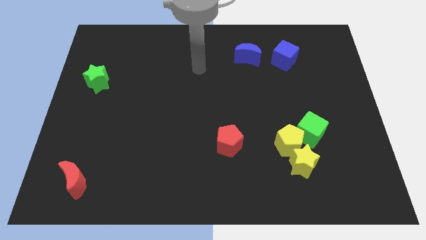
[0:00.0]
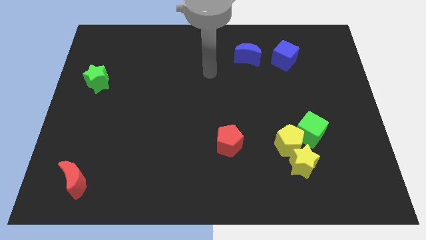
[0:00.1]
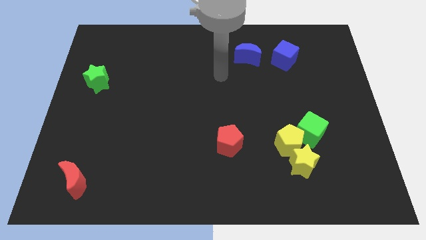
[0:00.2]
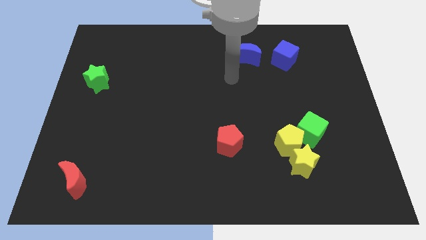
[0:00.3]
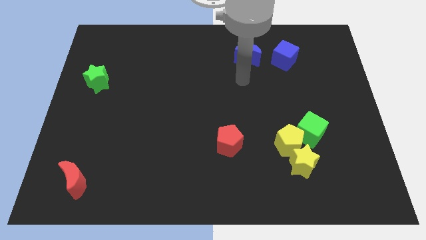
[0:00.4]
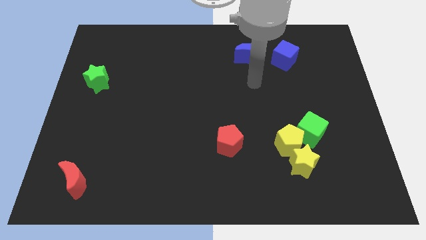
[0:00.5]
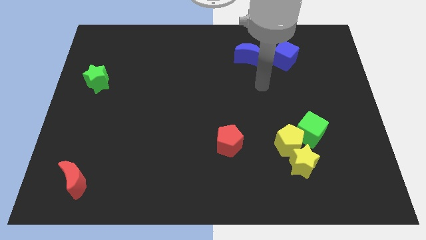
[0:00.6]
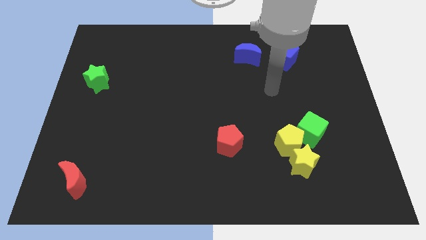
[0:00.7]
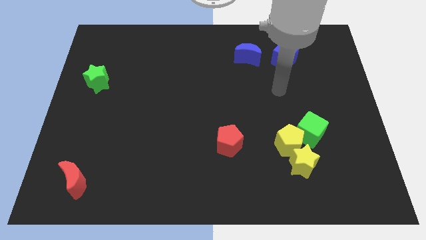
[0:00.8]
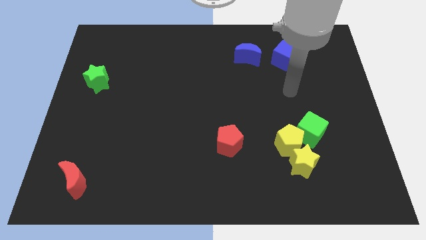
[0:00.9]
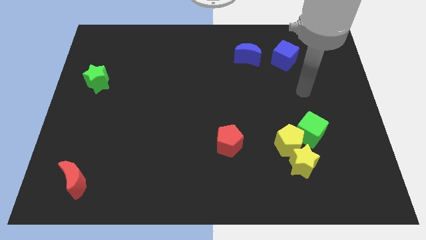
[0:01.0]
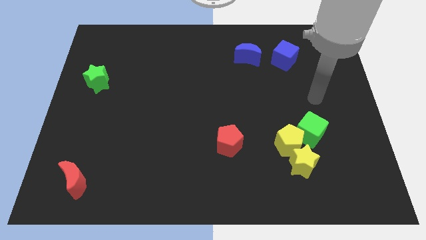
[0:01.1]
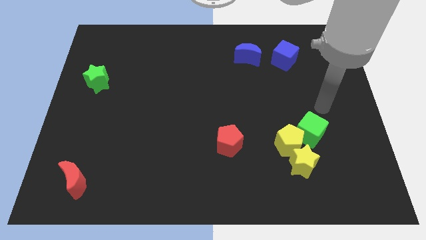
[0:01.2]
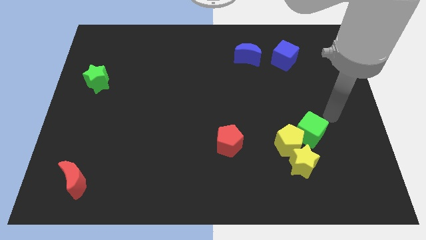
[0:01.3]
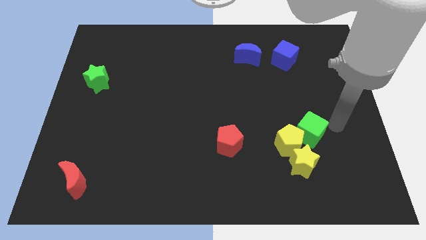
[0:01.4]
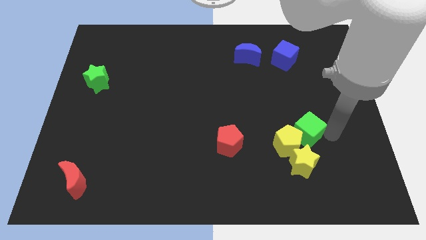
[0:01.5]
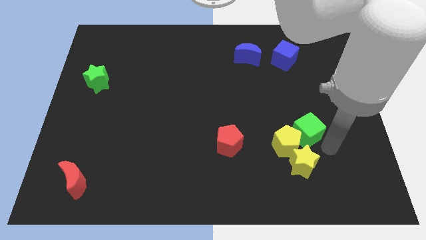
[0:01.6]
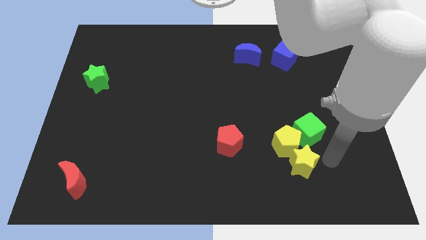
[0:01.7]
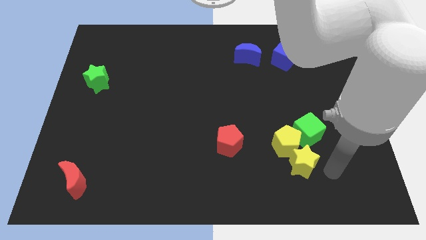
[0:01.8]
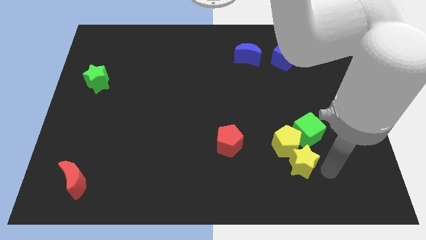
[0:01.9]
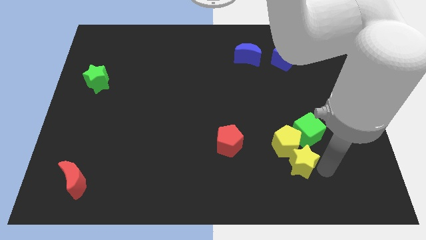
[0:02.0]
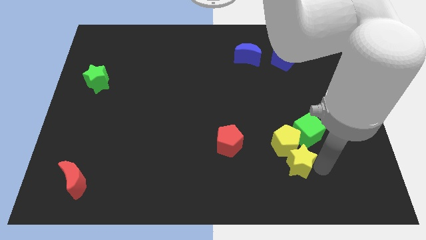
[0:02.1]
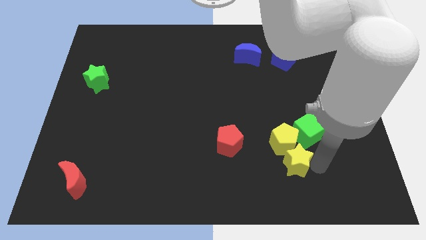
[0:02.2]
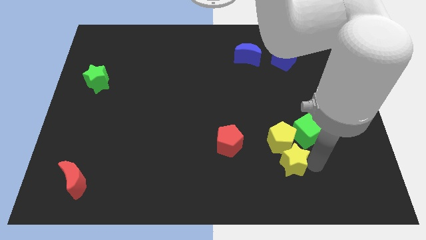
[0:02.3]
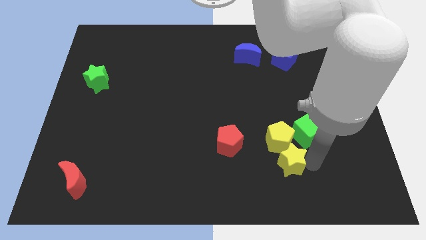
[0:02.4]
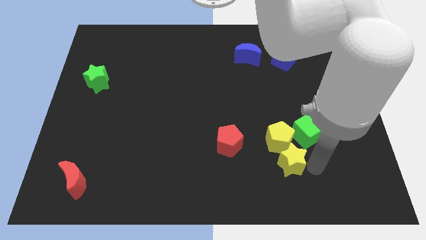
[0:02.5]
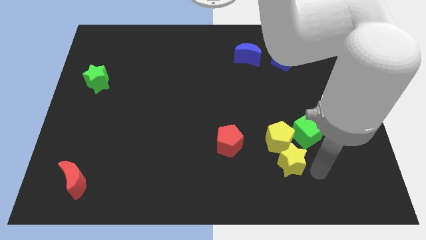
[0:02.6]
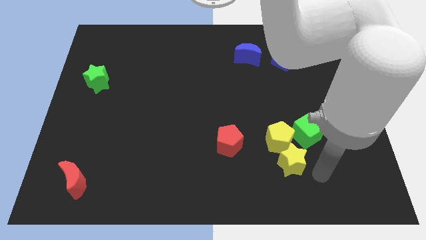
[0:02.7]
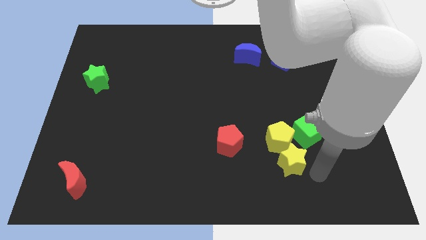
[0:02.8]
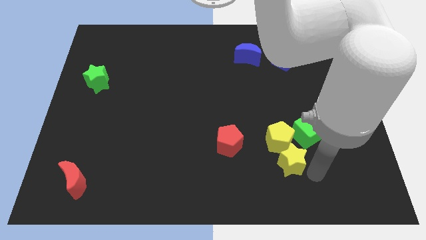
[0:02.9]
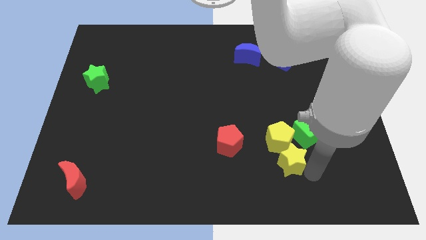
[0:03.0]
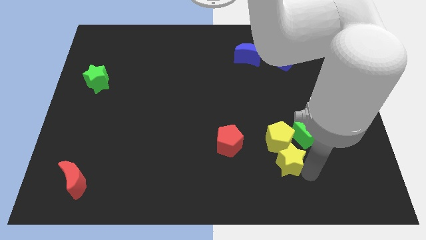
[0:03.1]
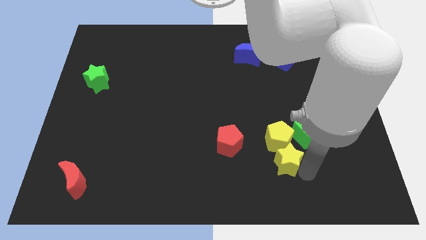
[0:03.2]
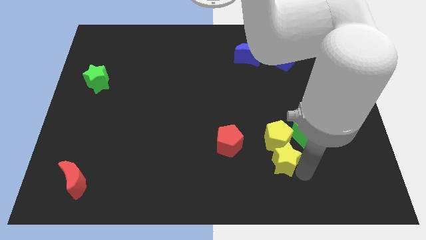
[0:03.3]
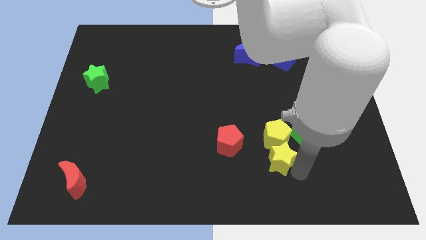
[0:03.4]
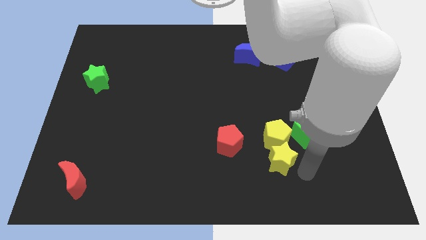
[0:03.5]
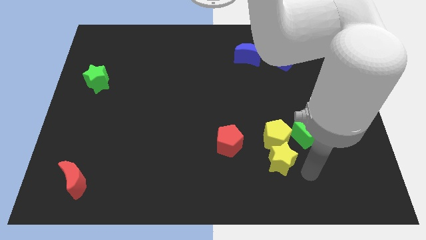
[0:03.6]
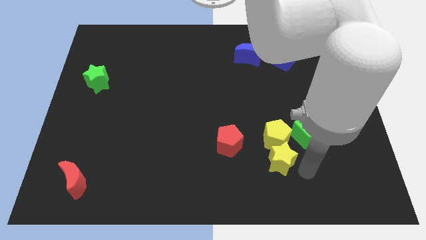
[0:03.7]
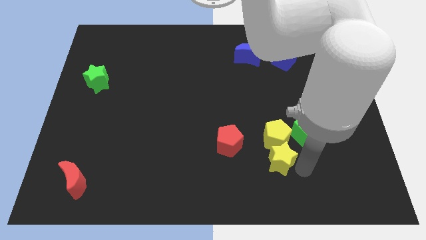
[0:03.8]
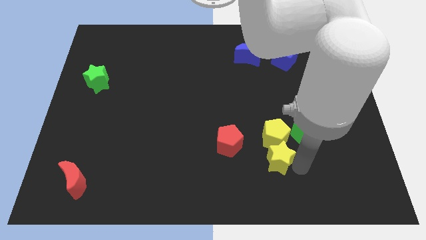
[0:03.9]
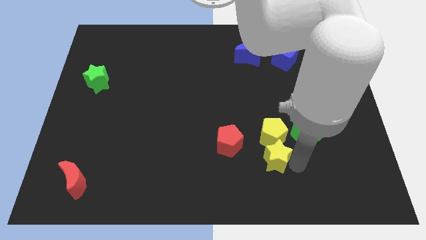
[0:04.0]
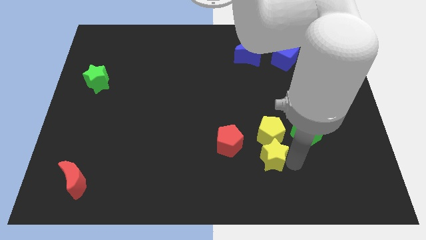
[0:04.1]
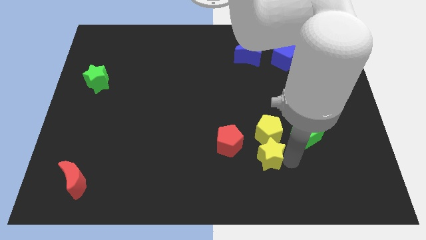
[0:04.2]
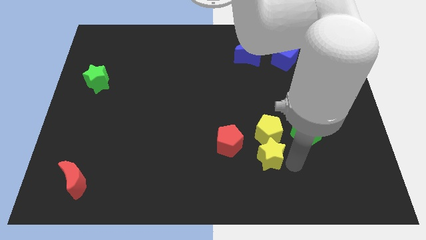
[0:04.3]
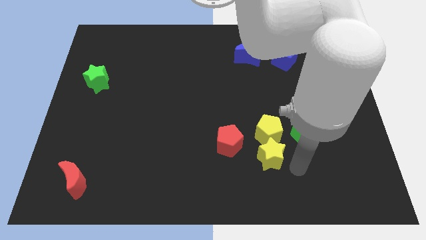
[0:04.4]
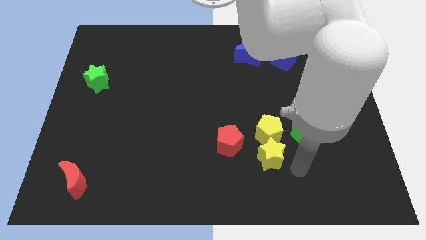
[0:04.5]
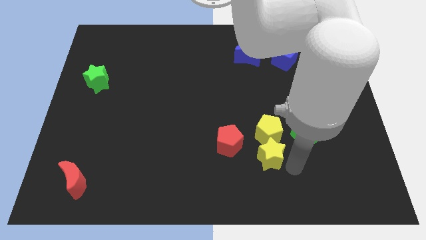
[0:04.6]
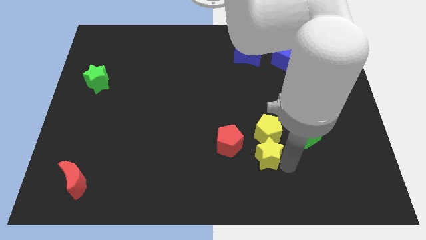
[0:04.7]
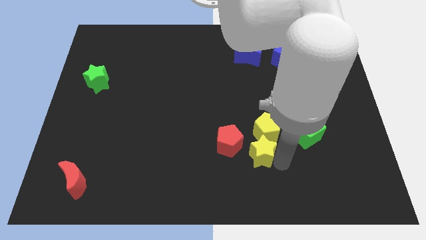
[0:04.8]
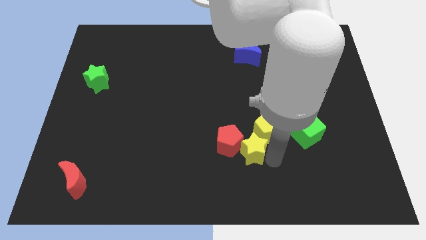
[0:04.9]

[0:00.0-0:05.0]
move the yellow star to the red pentagon

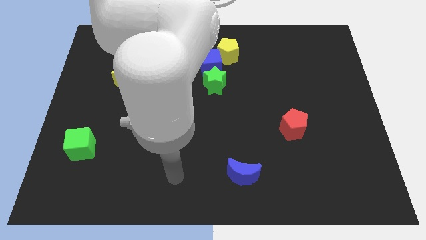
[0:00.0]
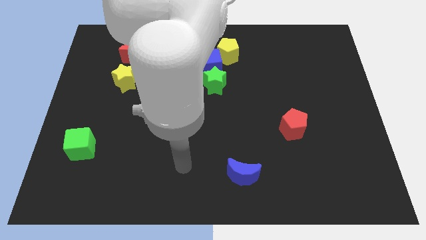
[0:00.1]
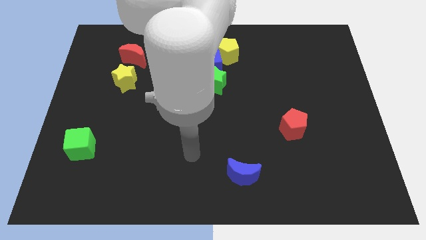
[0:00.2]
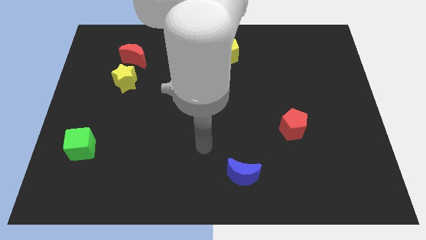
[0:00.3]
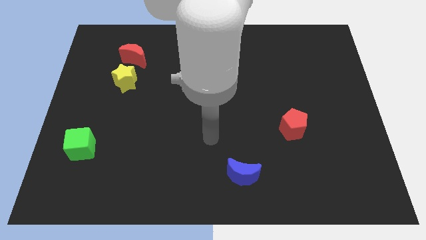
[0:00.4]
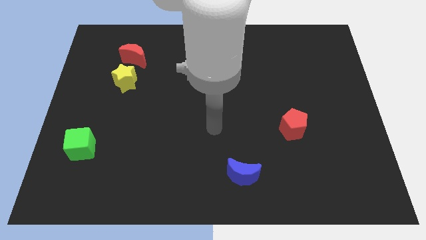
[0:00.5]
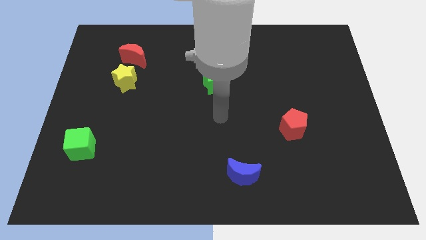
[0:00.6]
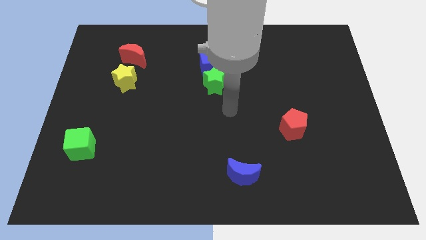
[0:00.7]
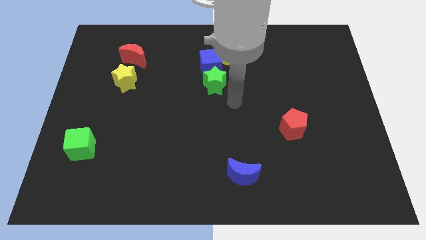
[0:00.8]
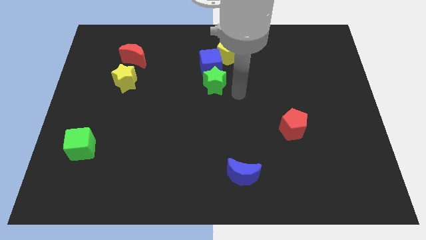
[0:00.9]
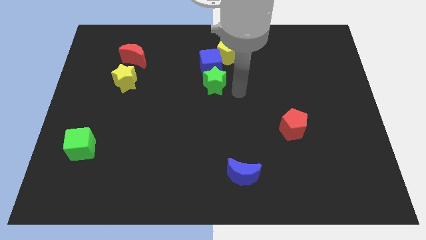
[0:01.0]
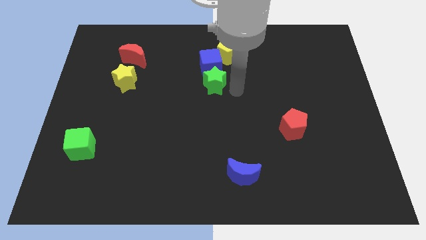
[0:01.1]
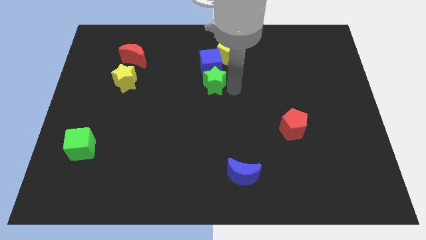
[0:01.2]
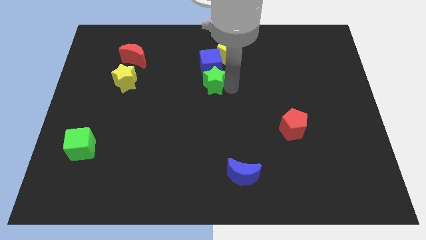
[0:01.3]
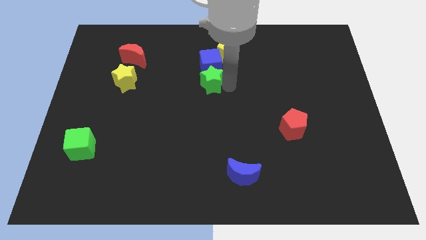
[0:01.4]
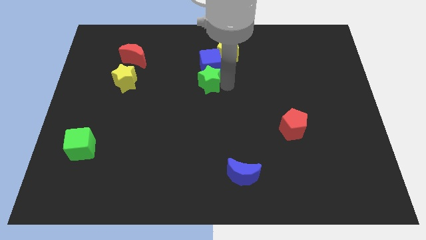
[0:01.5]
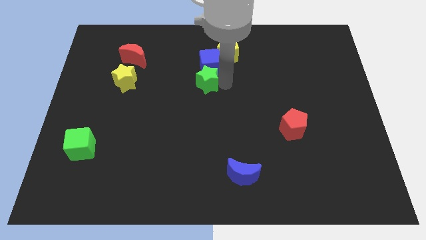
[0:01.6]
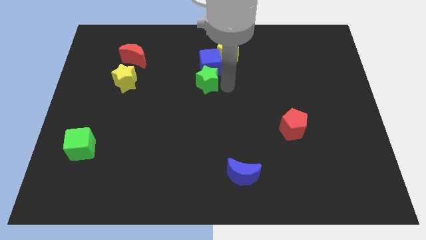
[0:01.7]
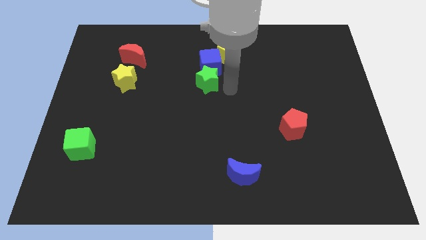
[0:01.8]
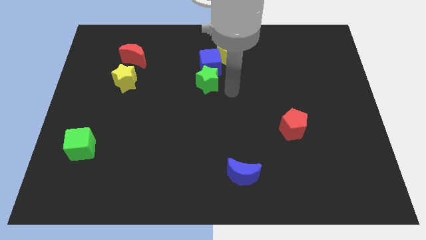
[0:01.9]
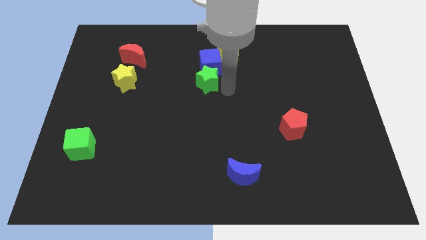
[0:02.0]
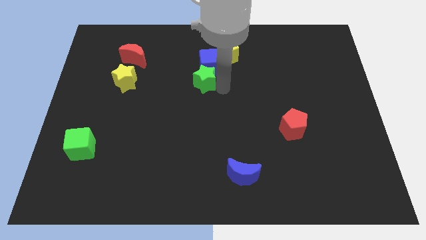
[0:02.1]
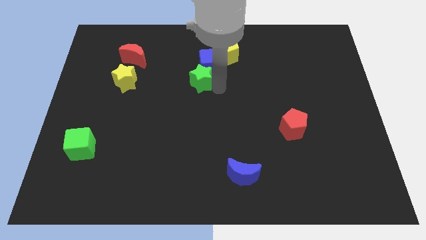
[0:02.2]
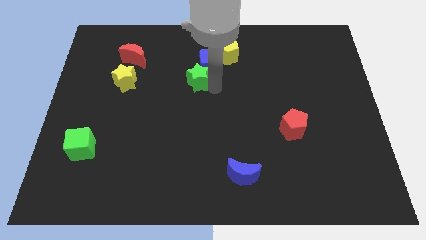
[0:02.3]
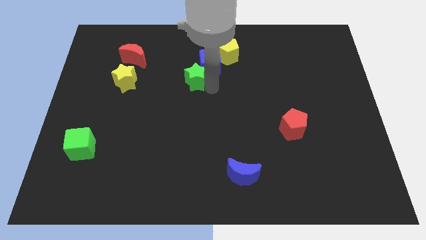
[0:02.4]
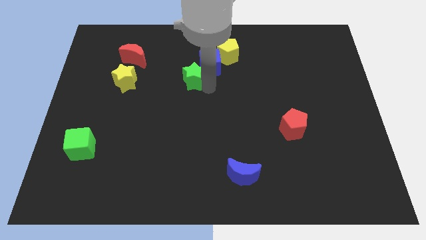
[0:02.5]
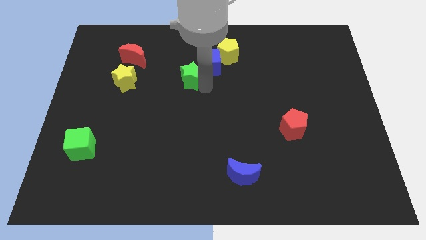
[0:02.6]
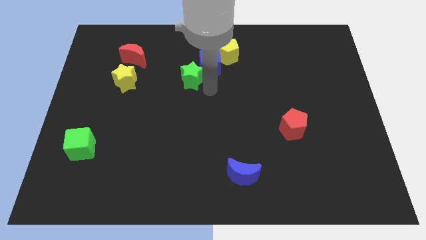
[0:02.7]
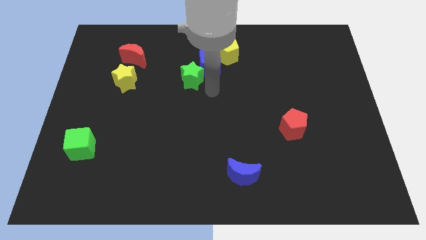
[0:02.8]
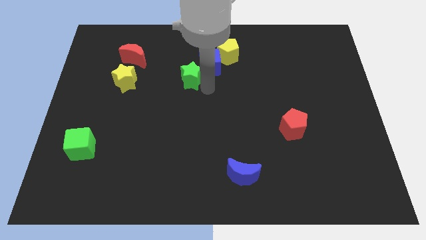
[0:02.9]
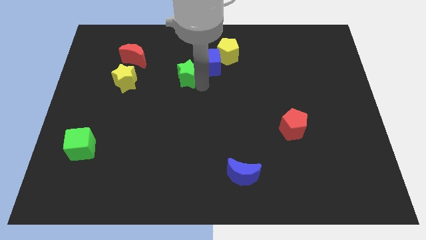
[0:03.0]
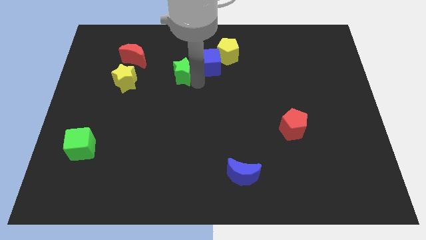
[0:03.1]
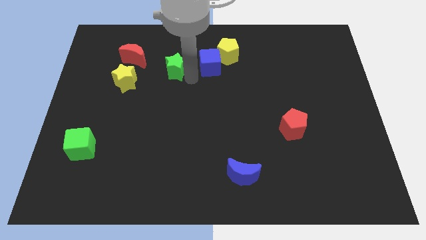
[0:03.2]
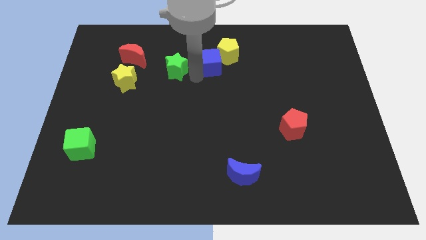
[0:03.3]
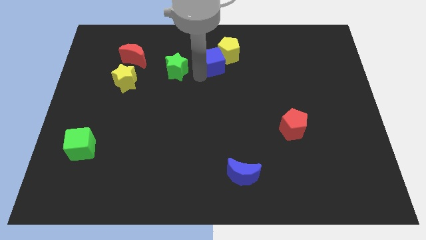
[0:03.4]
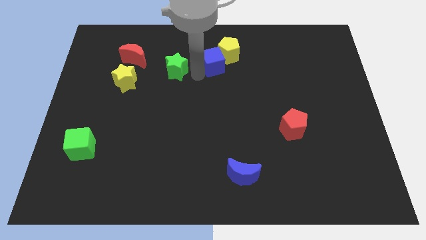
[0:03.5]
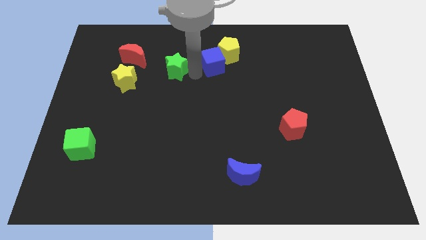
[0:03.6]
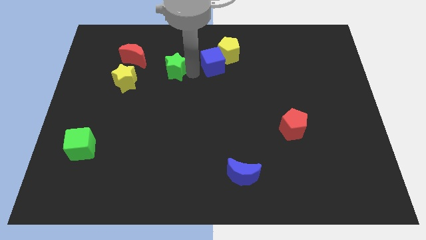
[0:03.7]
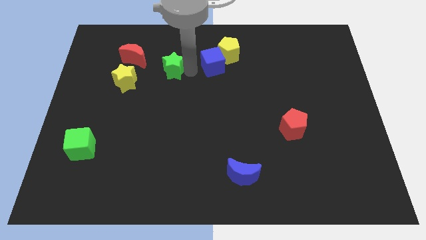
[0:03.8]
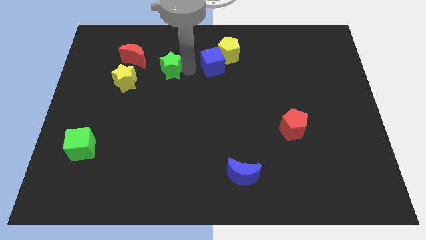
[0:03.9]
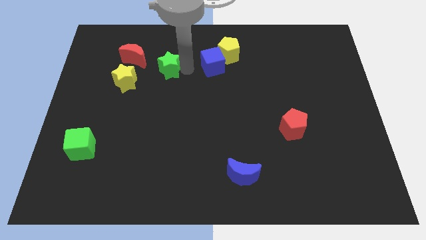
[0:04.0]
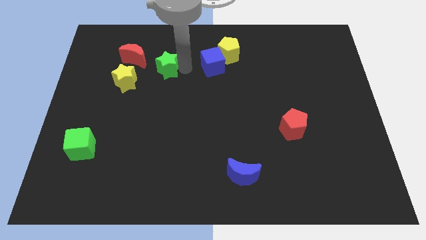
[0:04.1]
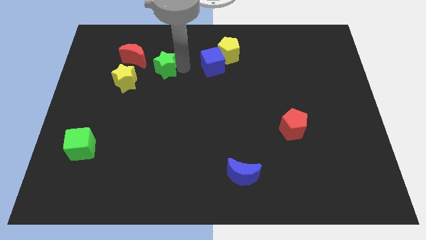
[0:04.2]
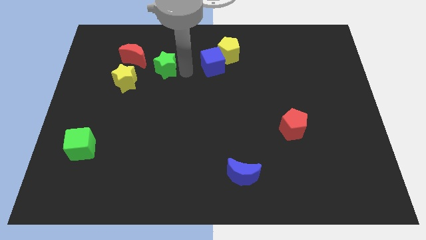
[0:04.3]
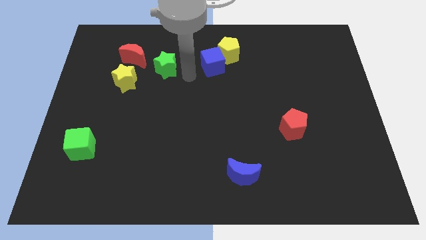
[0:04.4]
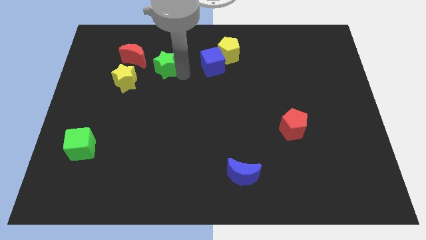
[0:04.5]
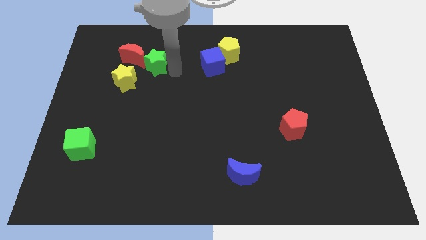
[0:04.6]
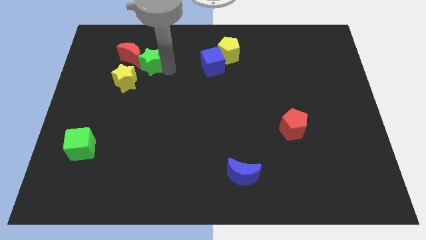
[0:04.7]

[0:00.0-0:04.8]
slide the green star close to the red moon
